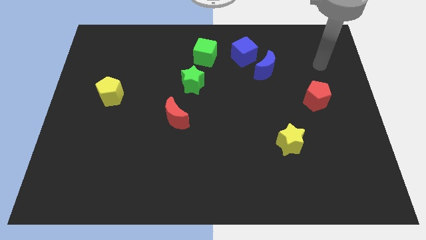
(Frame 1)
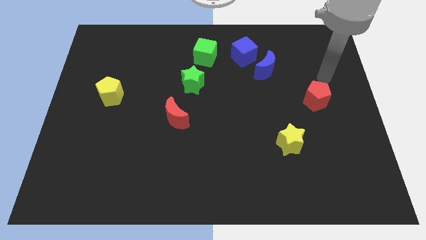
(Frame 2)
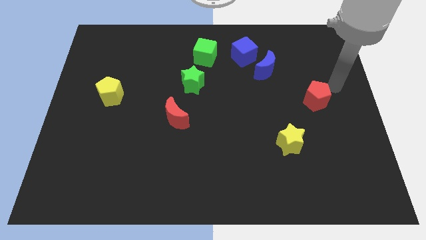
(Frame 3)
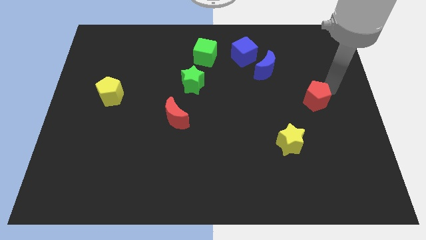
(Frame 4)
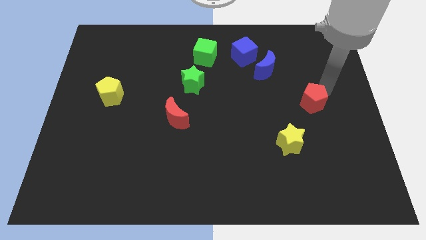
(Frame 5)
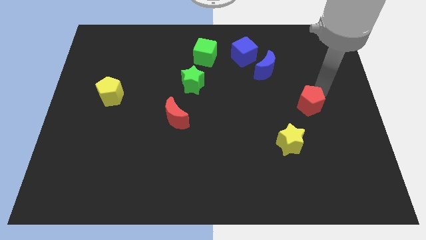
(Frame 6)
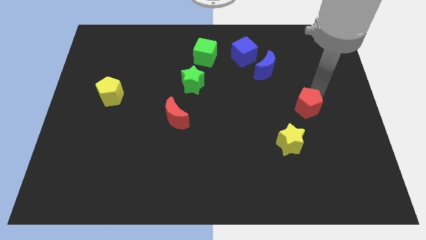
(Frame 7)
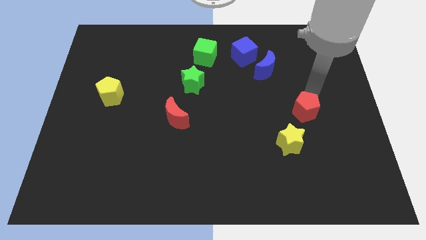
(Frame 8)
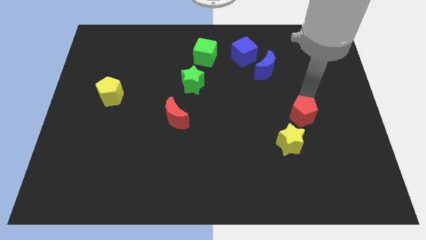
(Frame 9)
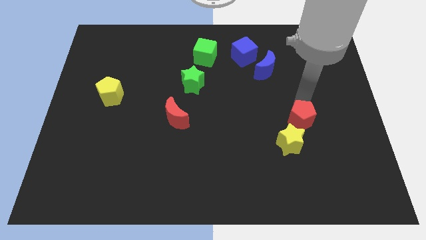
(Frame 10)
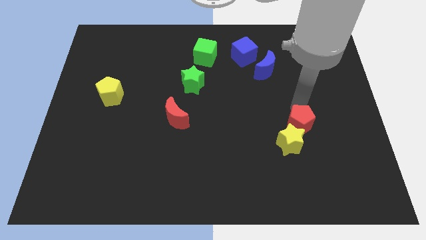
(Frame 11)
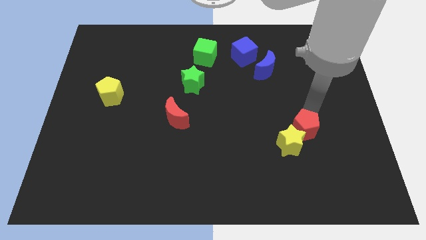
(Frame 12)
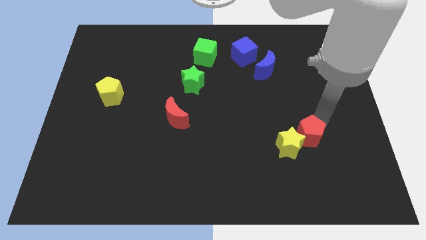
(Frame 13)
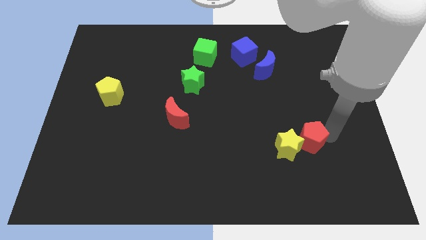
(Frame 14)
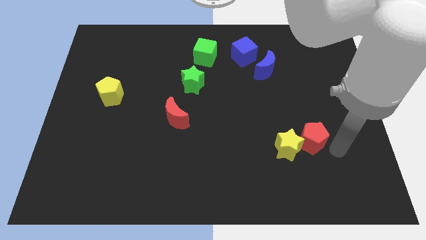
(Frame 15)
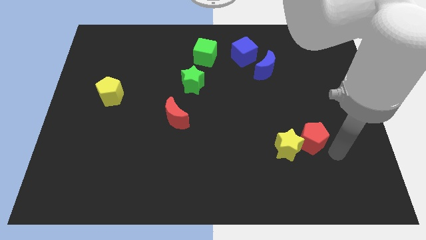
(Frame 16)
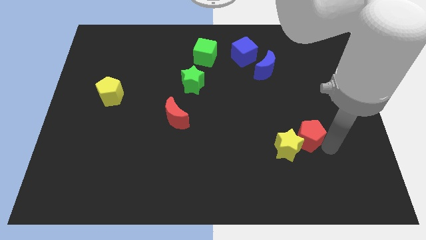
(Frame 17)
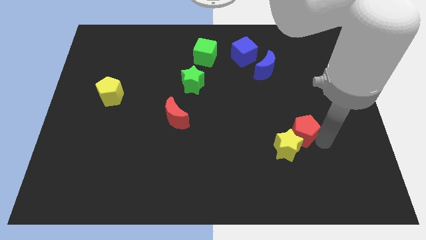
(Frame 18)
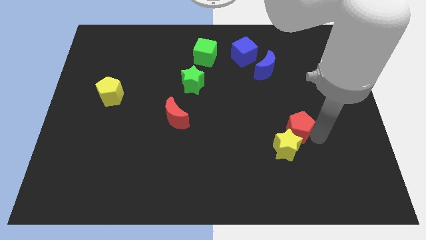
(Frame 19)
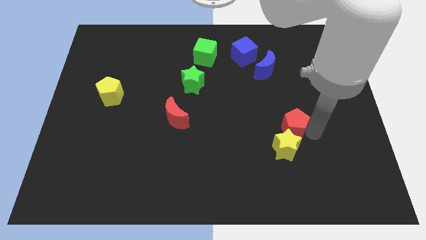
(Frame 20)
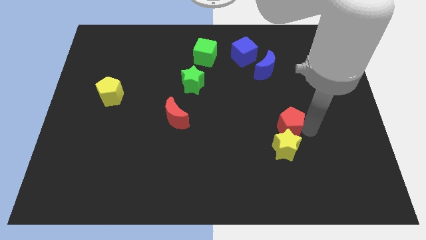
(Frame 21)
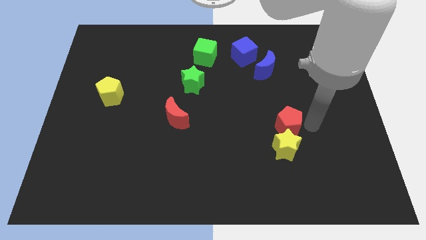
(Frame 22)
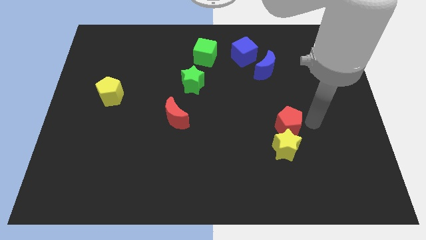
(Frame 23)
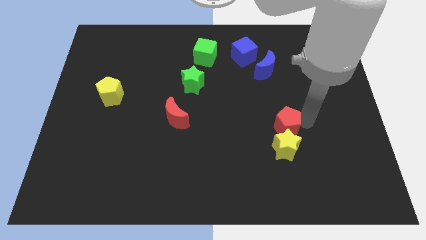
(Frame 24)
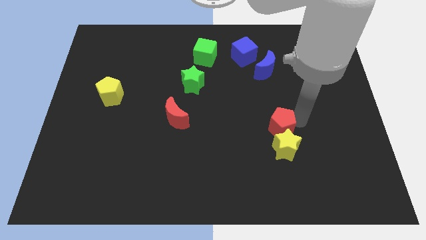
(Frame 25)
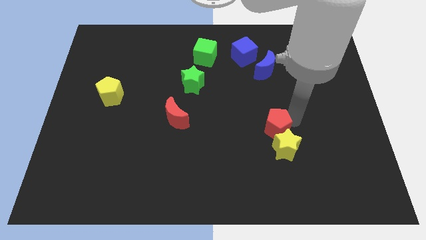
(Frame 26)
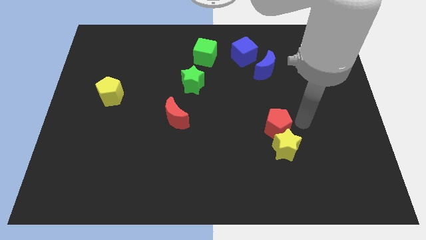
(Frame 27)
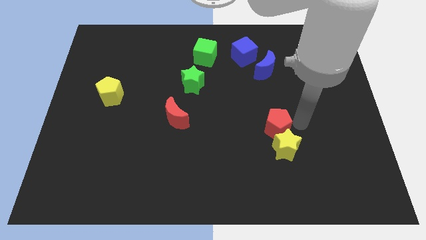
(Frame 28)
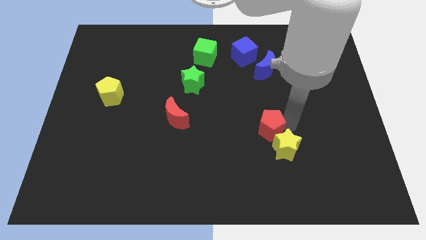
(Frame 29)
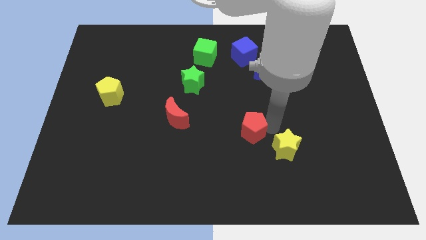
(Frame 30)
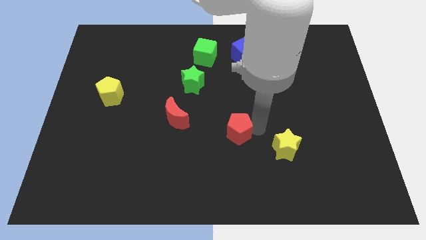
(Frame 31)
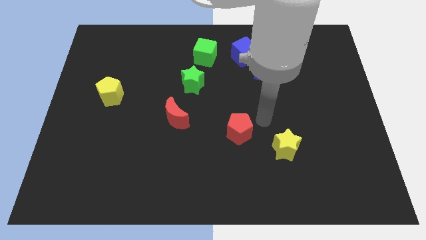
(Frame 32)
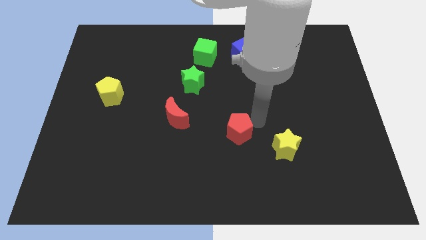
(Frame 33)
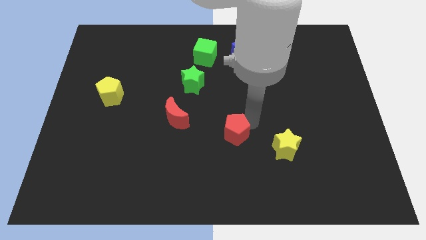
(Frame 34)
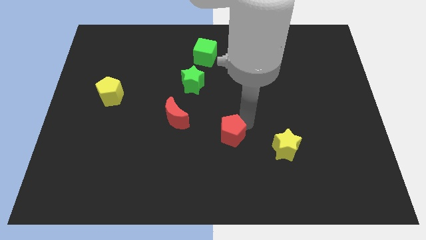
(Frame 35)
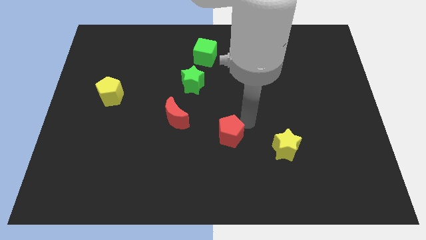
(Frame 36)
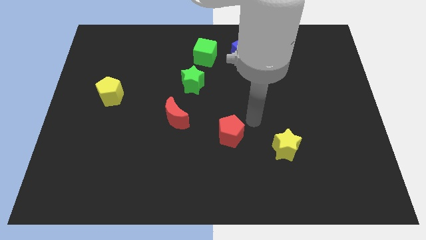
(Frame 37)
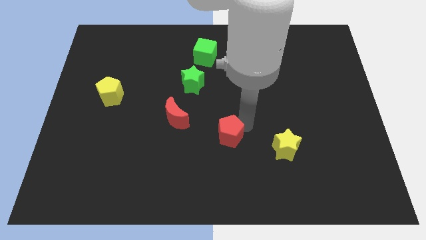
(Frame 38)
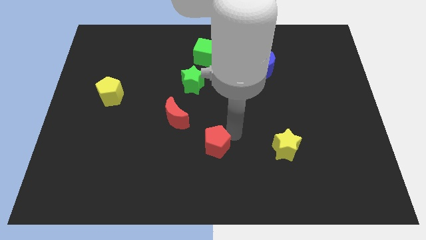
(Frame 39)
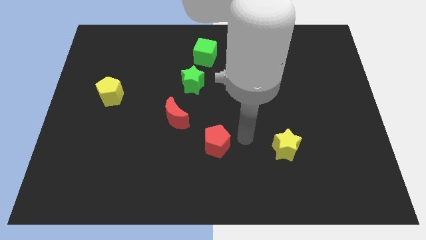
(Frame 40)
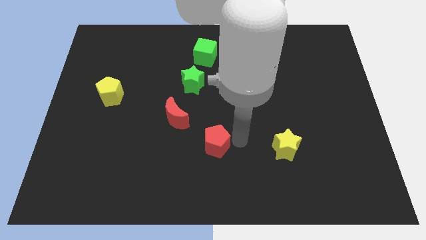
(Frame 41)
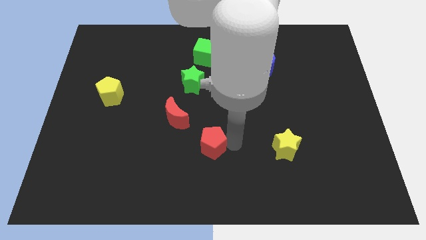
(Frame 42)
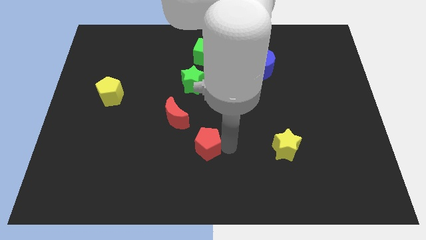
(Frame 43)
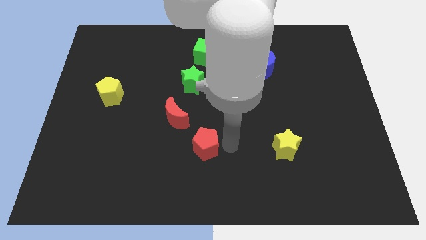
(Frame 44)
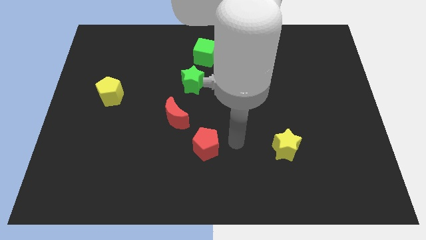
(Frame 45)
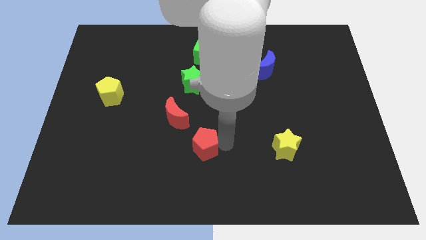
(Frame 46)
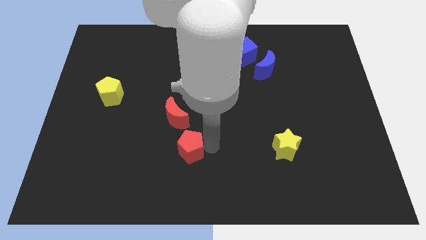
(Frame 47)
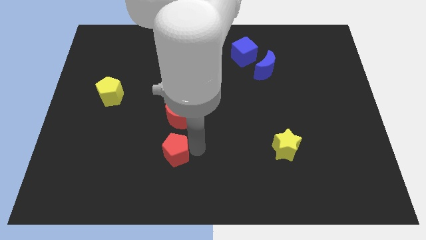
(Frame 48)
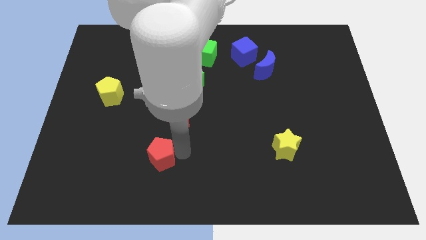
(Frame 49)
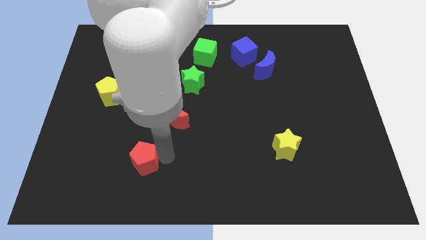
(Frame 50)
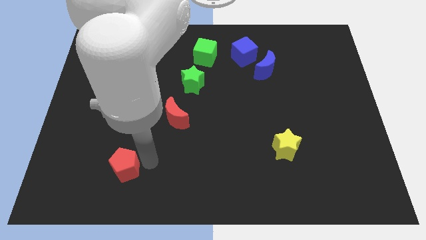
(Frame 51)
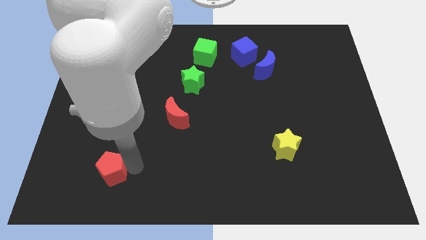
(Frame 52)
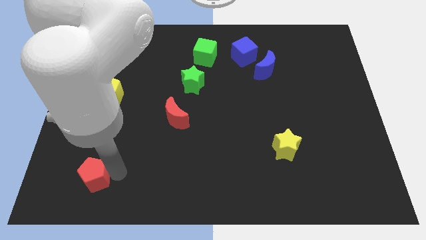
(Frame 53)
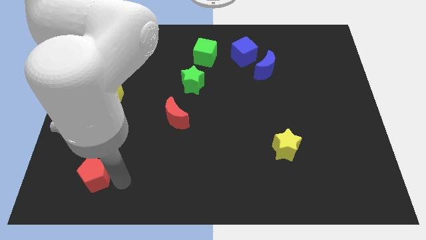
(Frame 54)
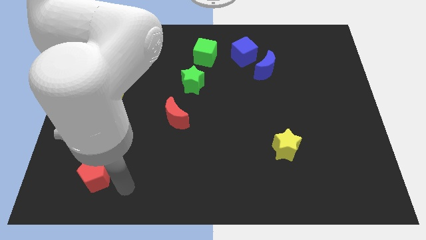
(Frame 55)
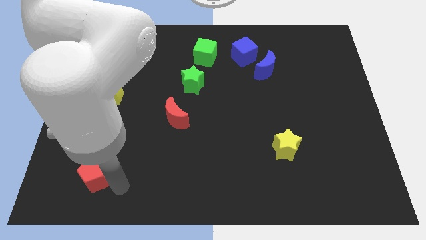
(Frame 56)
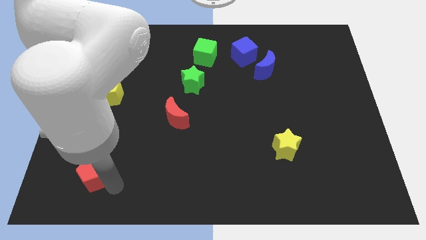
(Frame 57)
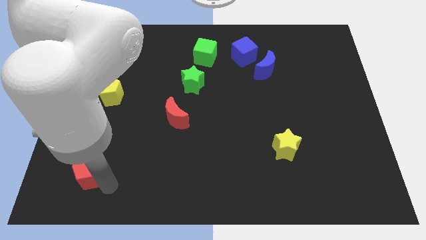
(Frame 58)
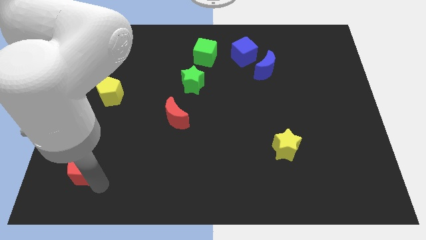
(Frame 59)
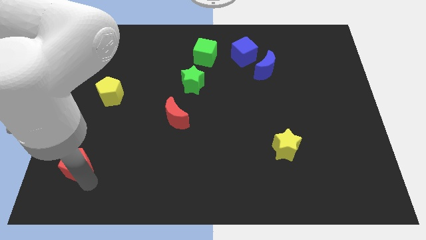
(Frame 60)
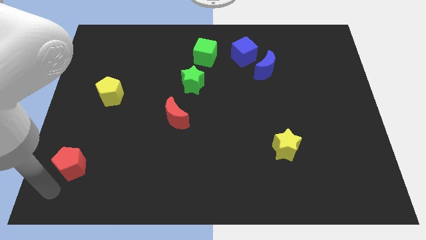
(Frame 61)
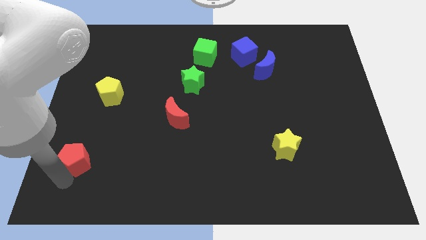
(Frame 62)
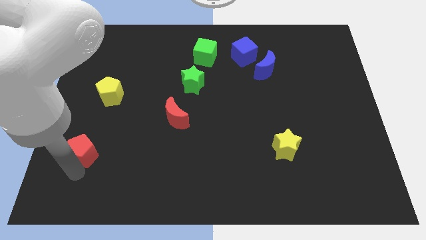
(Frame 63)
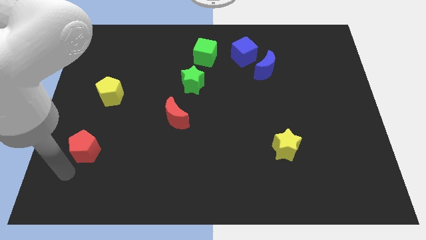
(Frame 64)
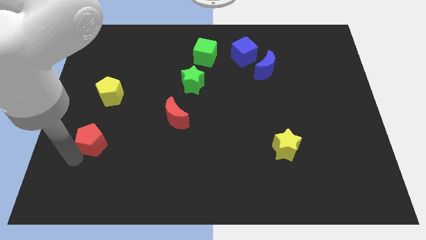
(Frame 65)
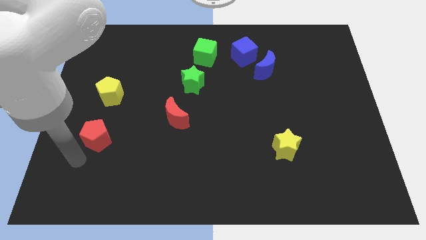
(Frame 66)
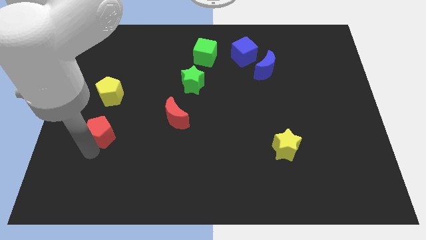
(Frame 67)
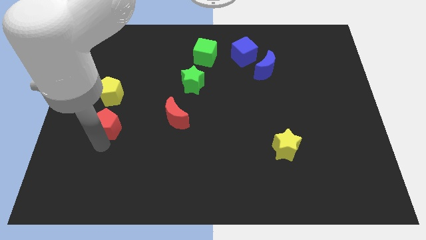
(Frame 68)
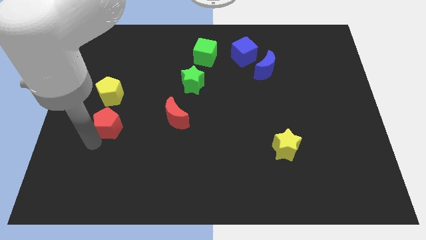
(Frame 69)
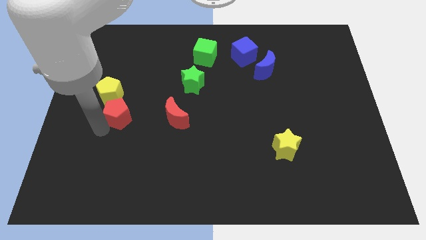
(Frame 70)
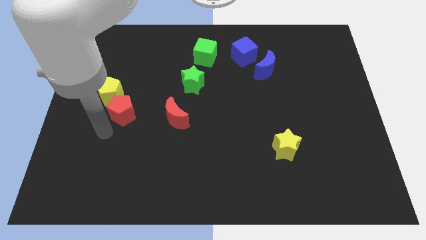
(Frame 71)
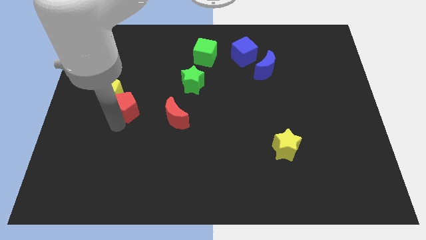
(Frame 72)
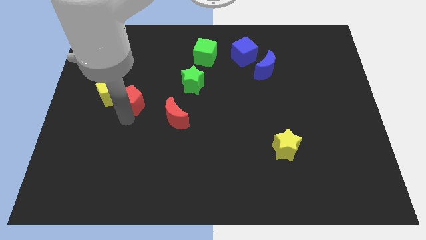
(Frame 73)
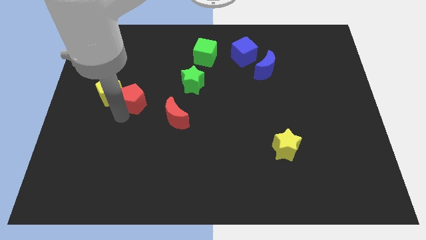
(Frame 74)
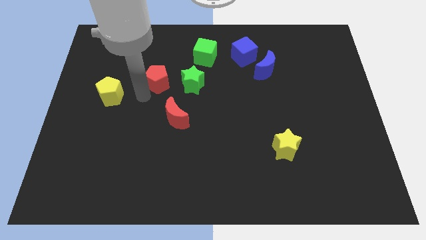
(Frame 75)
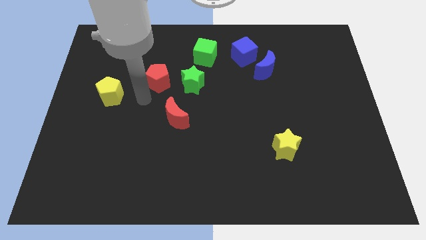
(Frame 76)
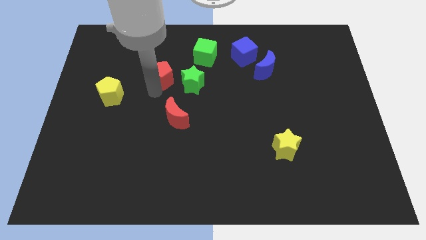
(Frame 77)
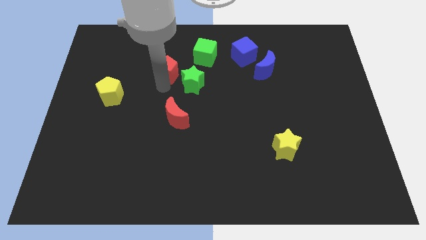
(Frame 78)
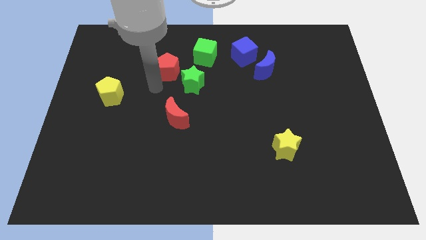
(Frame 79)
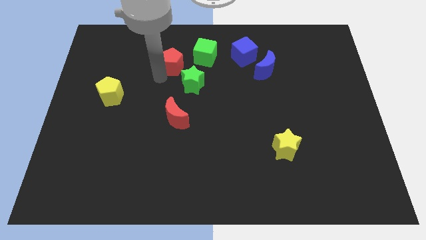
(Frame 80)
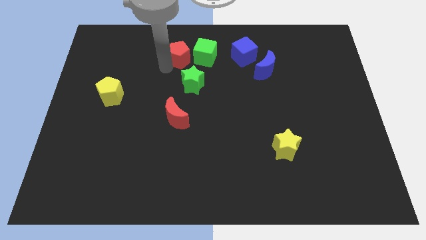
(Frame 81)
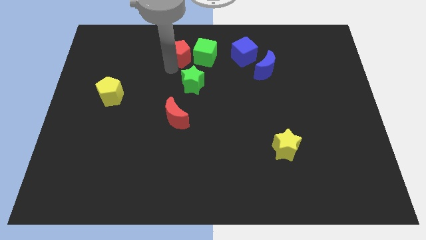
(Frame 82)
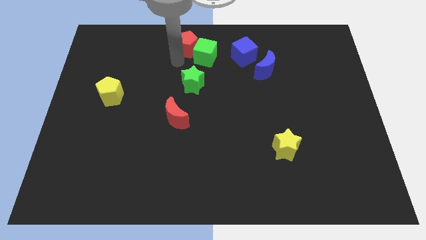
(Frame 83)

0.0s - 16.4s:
push the red pentagon to the towards your base
